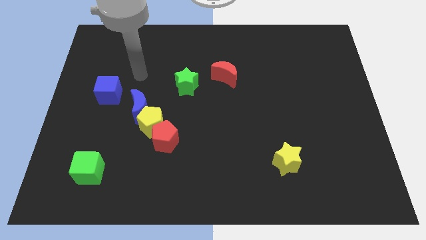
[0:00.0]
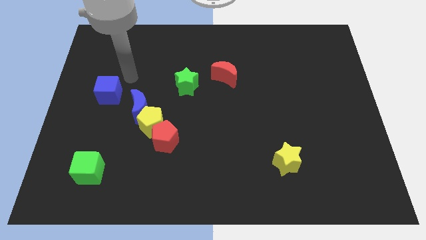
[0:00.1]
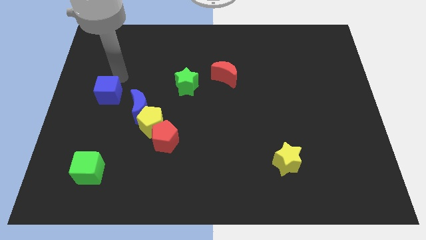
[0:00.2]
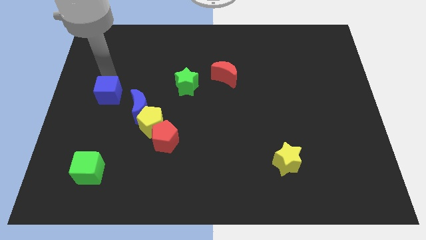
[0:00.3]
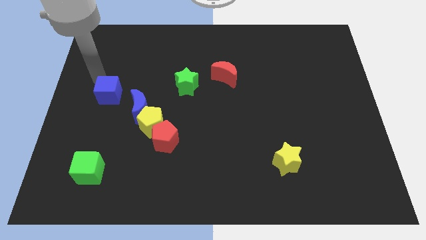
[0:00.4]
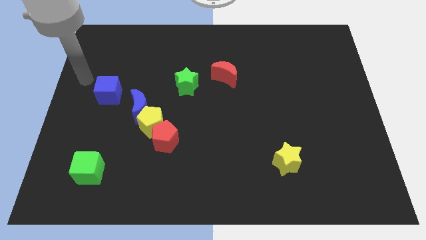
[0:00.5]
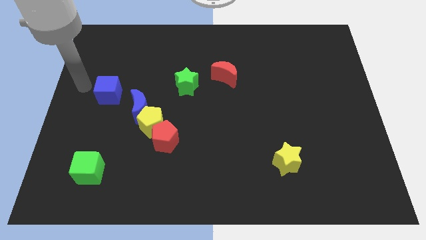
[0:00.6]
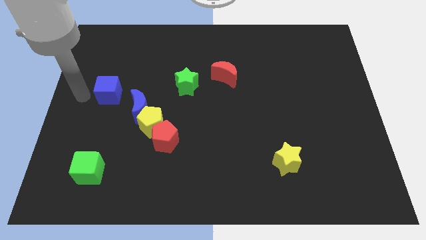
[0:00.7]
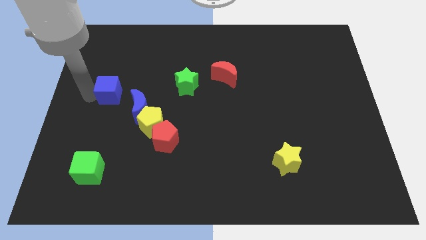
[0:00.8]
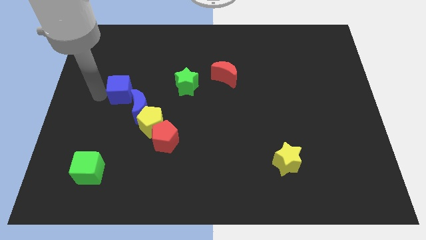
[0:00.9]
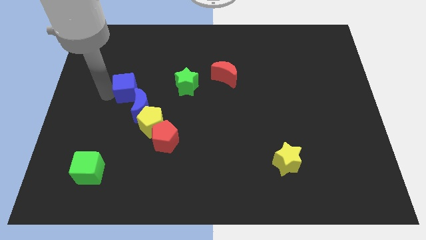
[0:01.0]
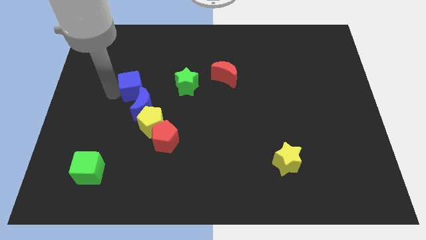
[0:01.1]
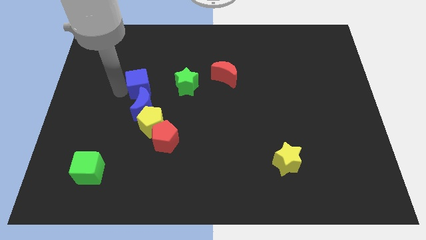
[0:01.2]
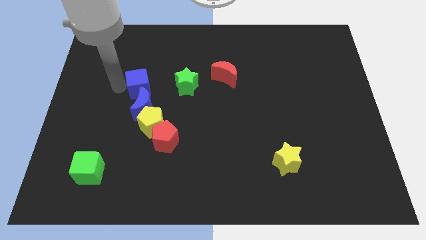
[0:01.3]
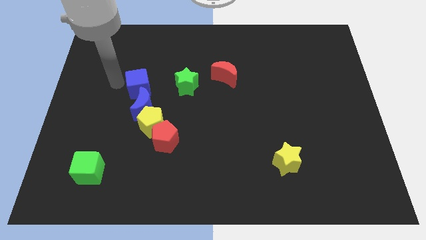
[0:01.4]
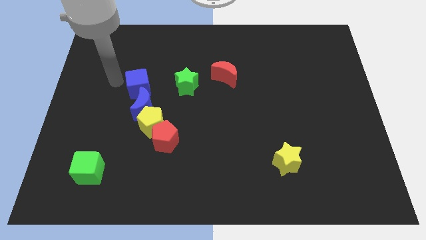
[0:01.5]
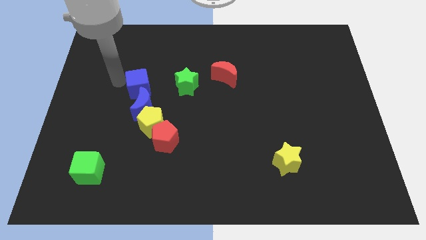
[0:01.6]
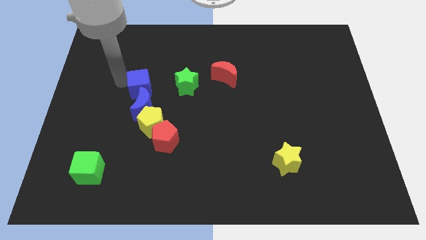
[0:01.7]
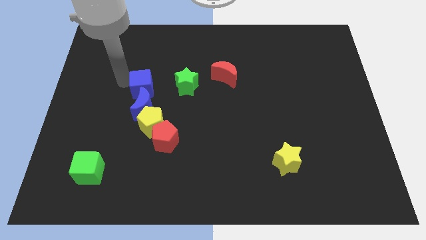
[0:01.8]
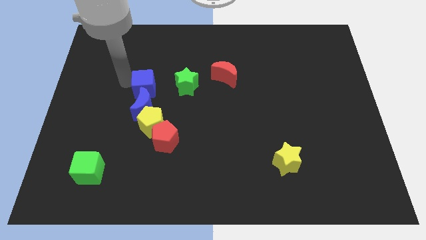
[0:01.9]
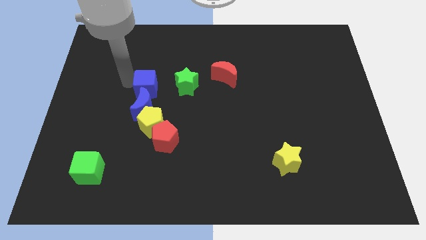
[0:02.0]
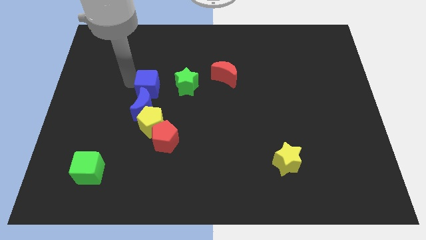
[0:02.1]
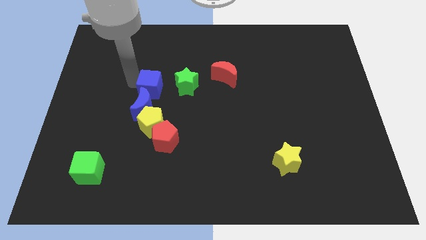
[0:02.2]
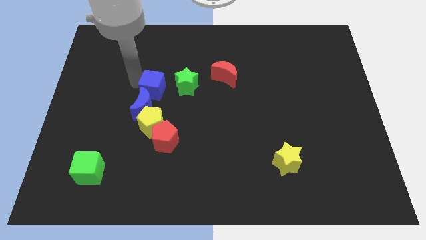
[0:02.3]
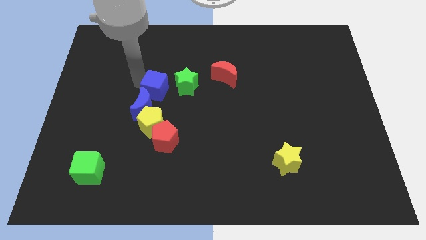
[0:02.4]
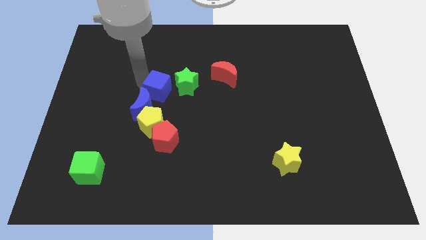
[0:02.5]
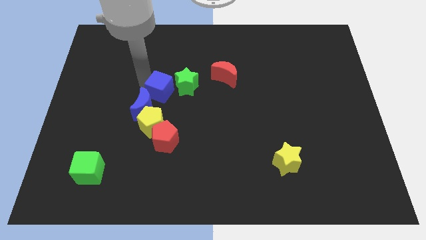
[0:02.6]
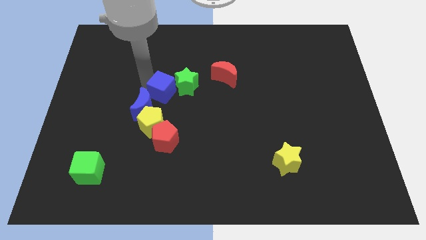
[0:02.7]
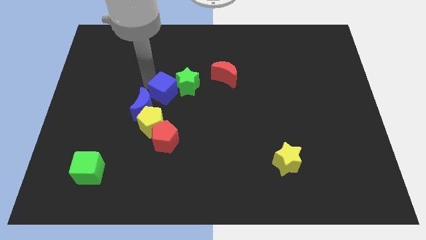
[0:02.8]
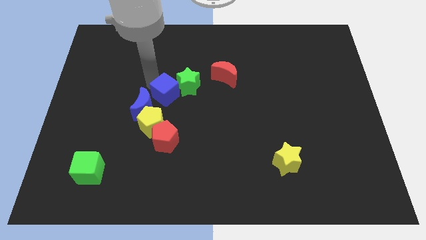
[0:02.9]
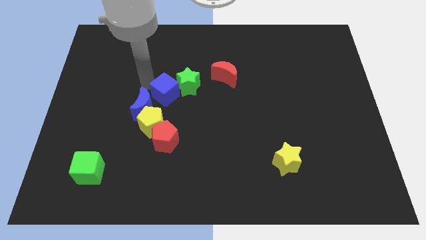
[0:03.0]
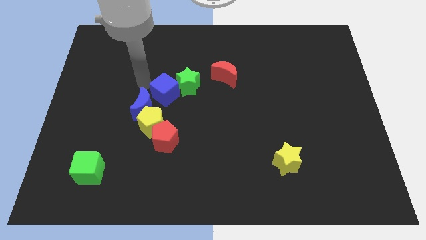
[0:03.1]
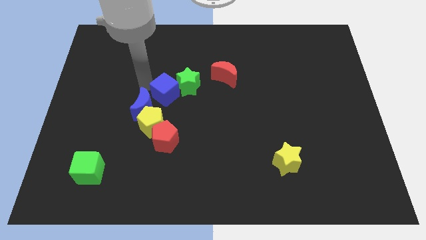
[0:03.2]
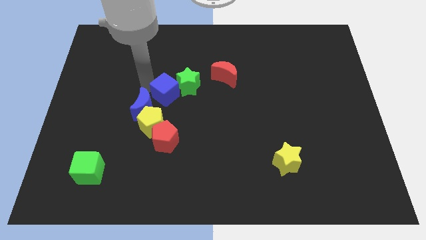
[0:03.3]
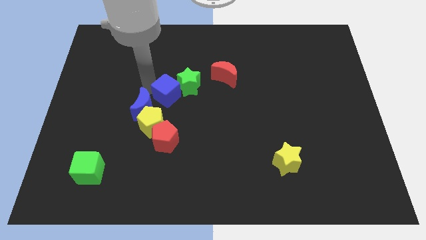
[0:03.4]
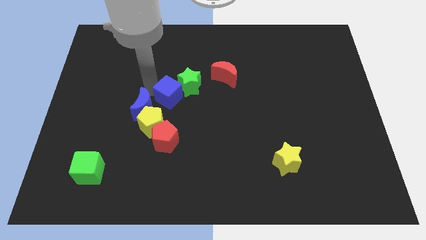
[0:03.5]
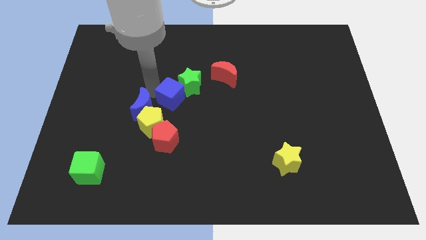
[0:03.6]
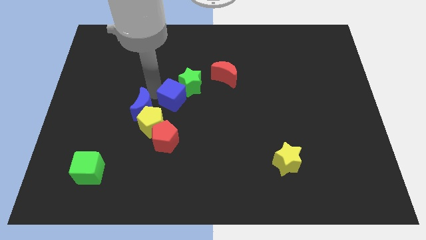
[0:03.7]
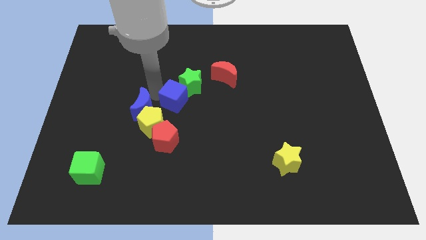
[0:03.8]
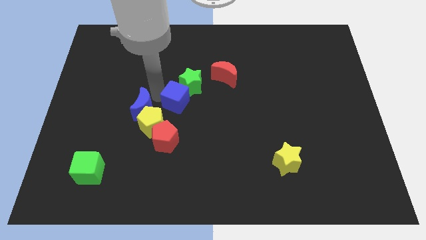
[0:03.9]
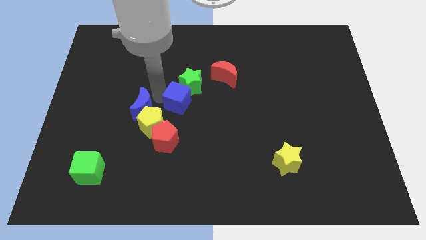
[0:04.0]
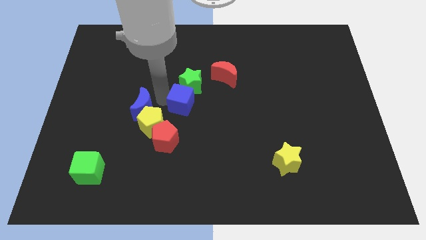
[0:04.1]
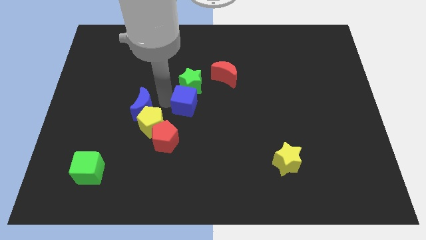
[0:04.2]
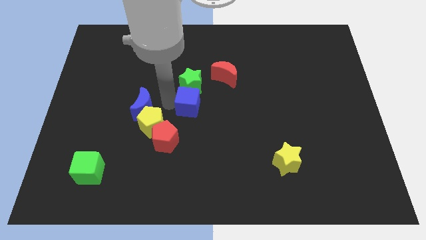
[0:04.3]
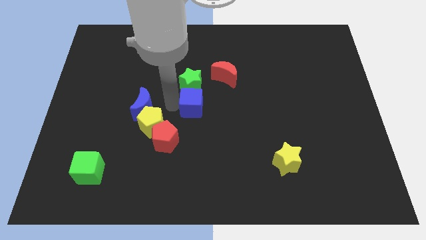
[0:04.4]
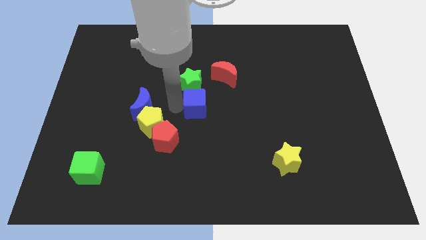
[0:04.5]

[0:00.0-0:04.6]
move the blue cube right

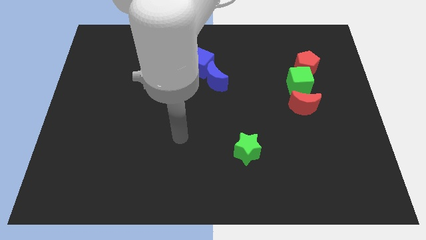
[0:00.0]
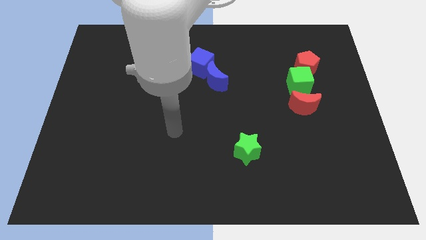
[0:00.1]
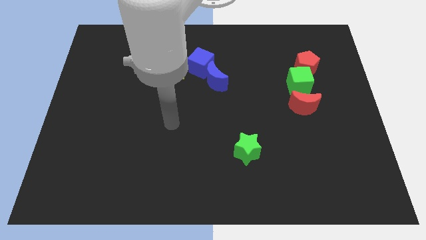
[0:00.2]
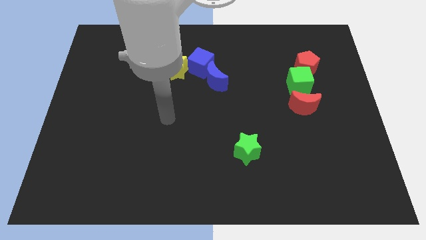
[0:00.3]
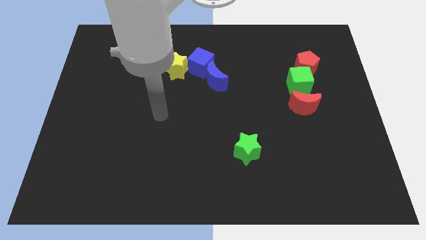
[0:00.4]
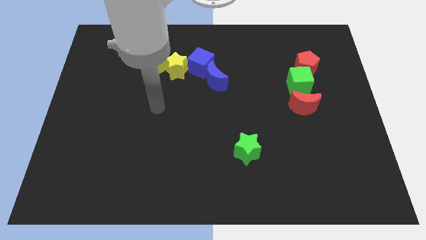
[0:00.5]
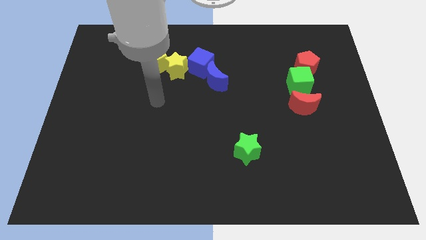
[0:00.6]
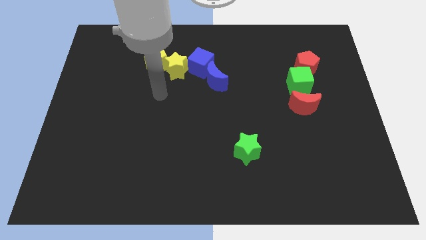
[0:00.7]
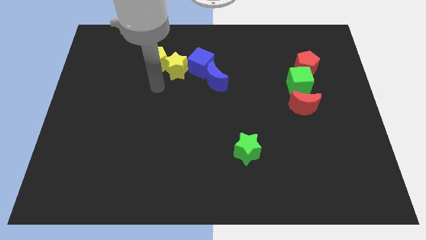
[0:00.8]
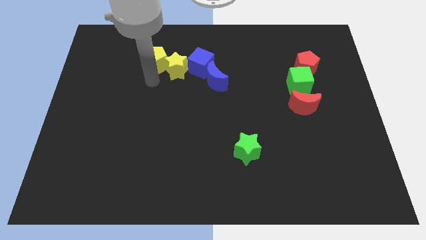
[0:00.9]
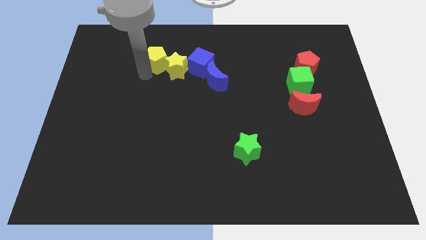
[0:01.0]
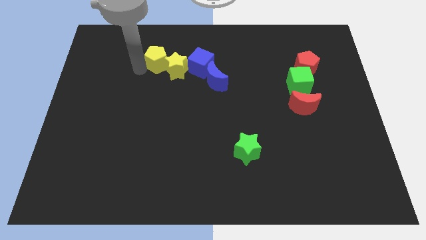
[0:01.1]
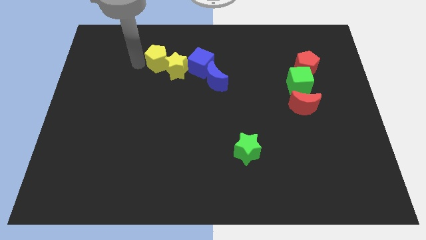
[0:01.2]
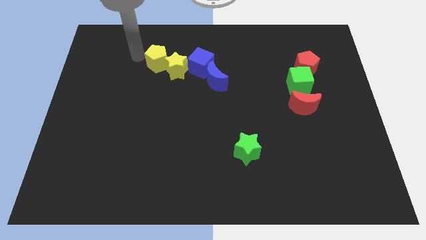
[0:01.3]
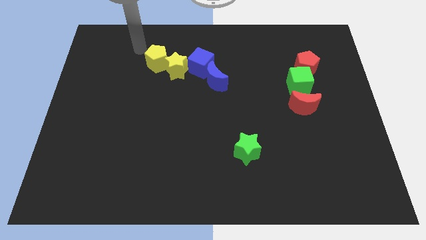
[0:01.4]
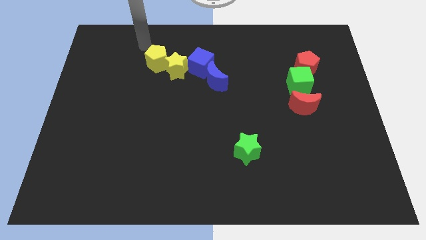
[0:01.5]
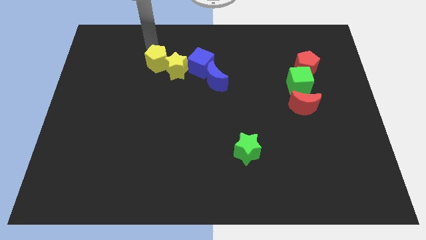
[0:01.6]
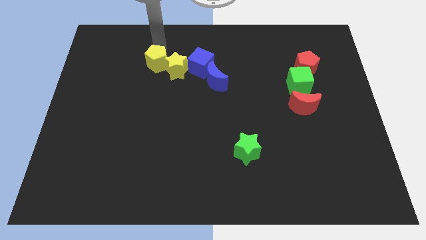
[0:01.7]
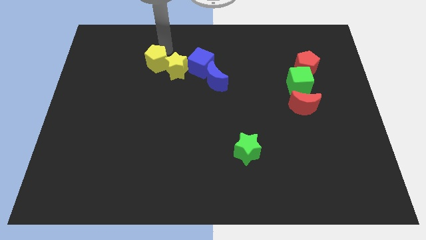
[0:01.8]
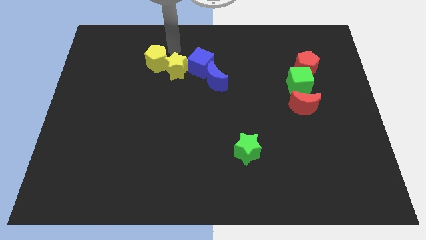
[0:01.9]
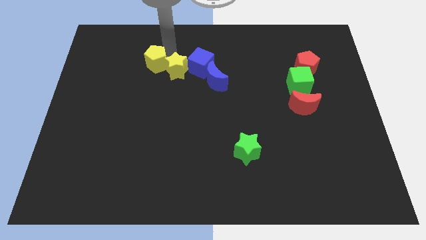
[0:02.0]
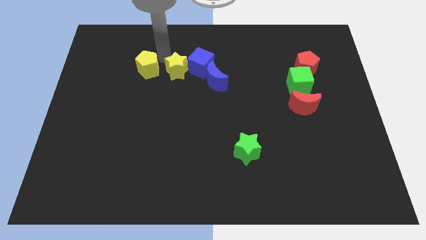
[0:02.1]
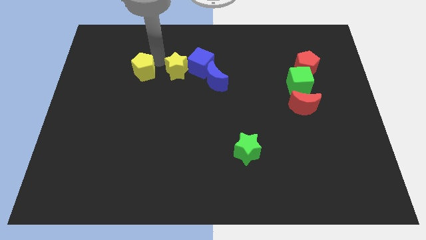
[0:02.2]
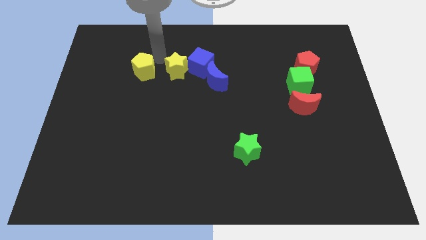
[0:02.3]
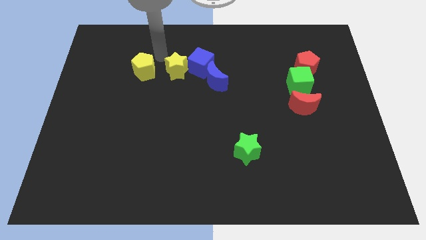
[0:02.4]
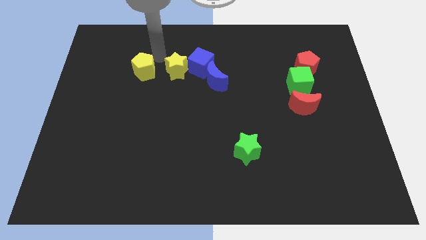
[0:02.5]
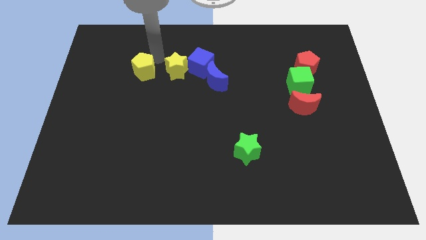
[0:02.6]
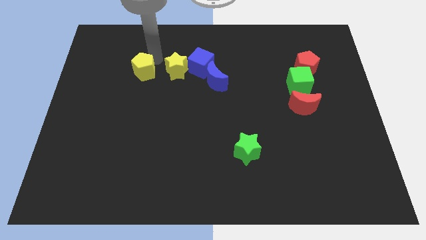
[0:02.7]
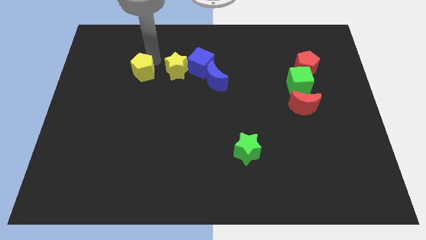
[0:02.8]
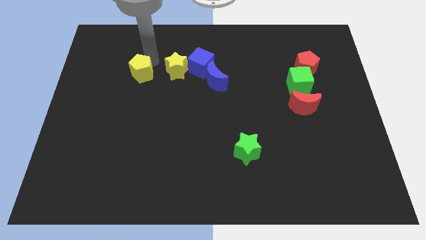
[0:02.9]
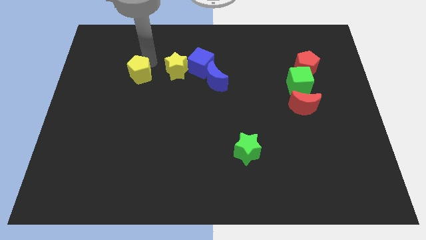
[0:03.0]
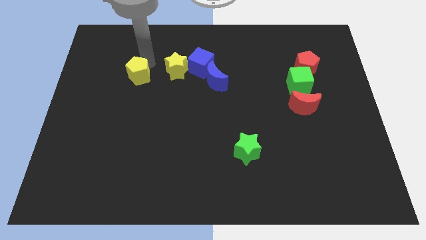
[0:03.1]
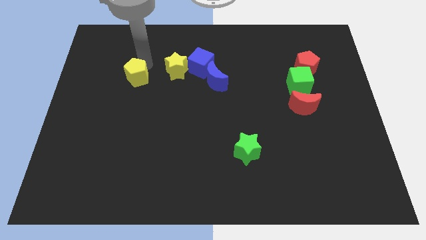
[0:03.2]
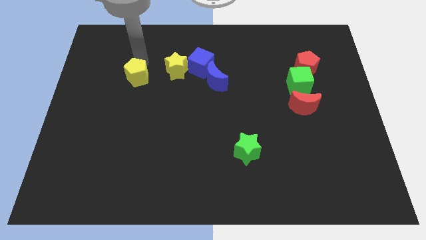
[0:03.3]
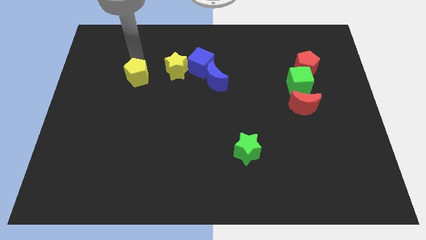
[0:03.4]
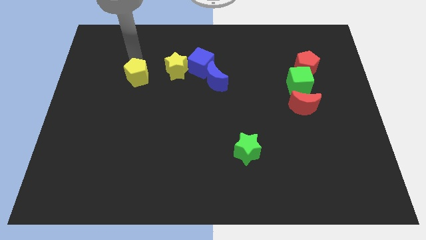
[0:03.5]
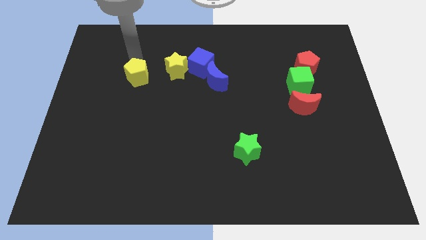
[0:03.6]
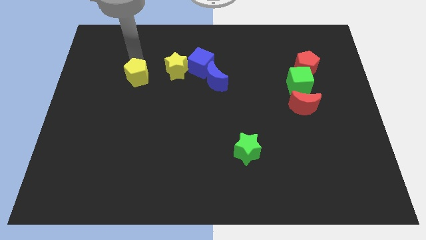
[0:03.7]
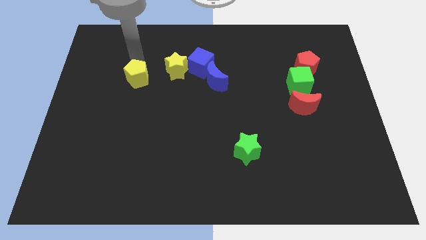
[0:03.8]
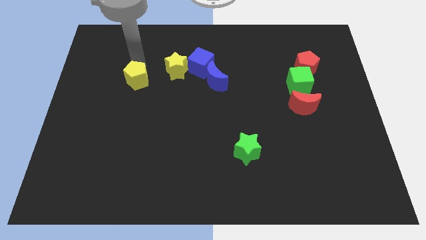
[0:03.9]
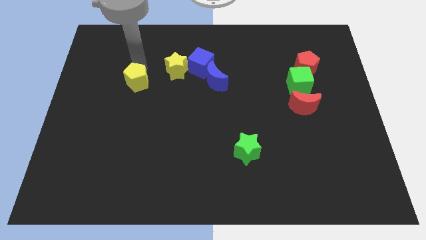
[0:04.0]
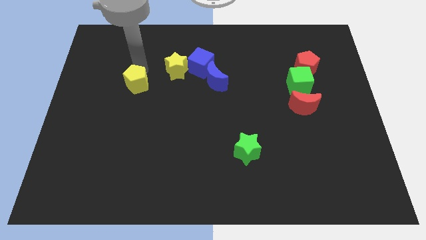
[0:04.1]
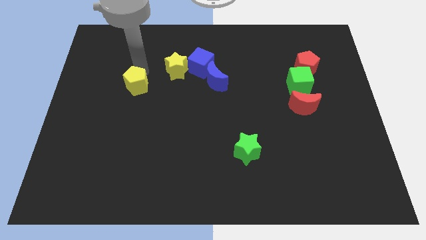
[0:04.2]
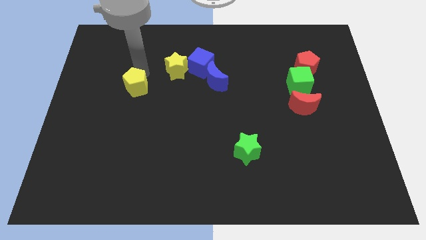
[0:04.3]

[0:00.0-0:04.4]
slightly push the yellow pentagon downwards
